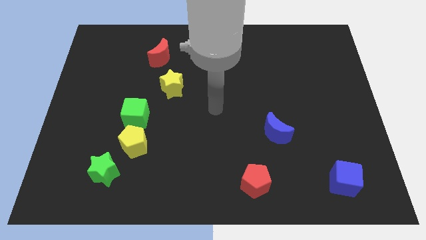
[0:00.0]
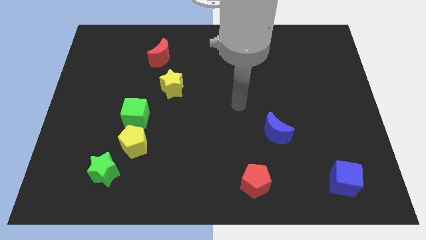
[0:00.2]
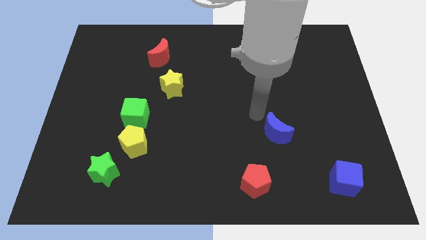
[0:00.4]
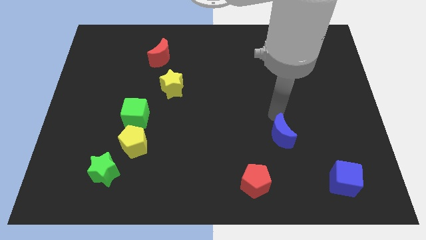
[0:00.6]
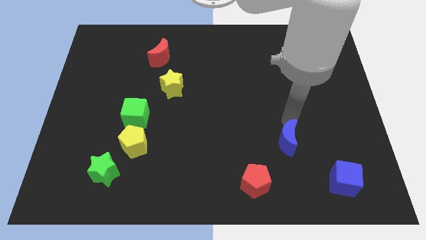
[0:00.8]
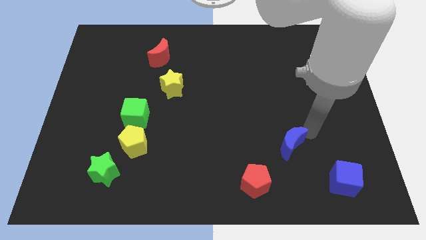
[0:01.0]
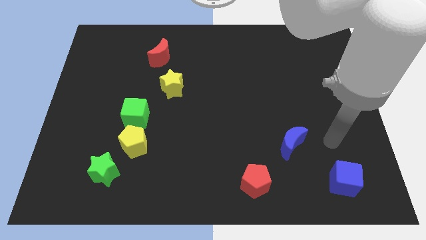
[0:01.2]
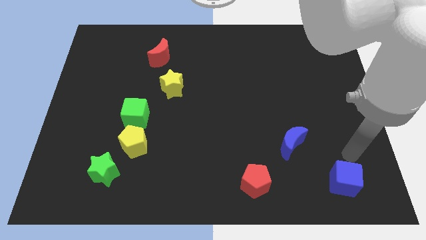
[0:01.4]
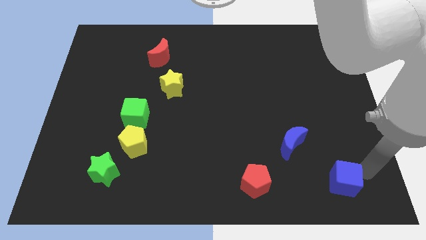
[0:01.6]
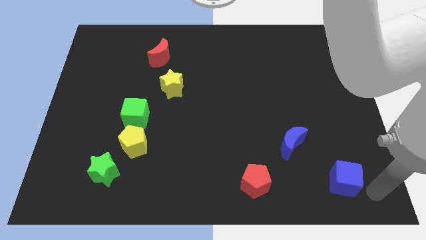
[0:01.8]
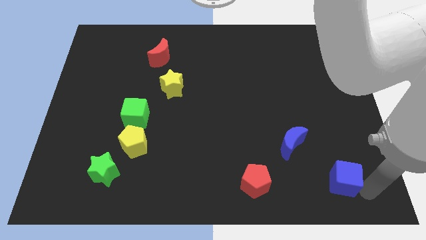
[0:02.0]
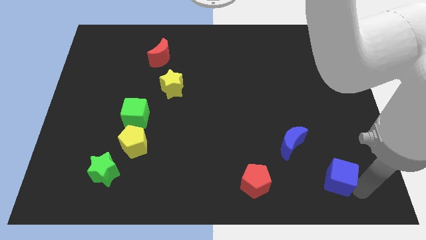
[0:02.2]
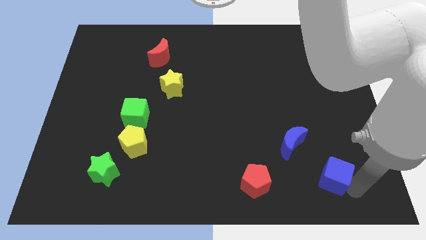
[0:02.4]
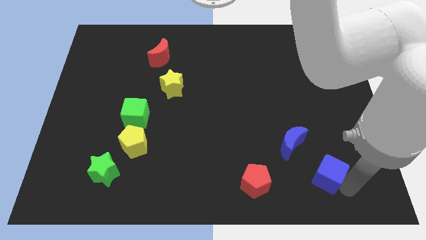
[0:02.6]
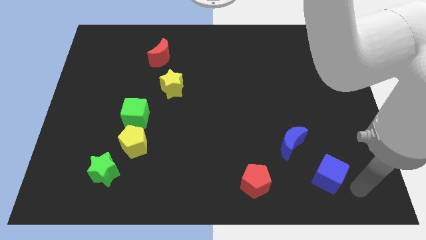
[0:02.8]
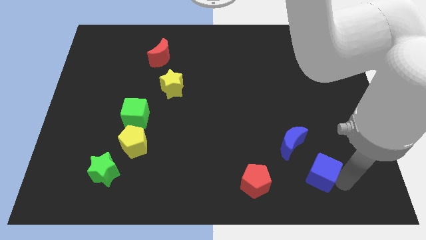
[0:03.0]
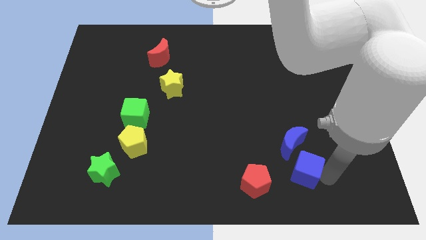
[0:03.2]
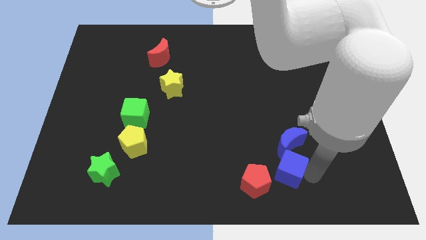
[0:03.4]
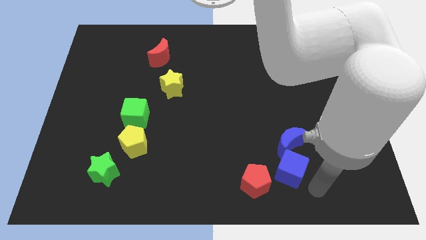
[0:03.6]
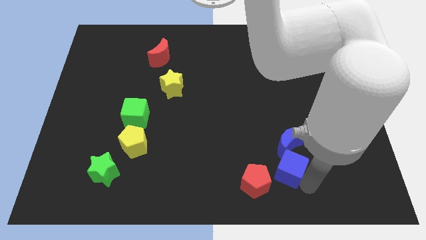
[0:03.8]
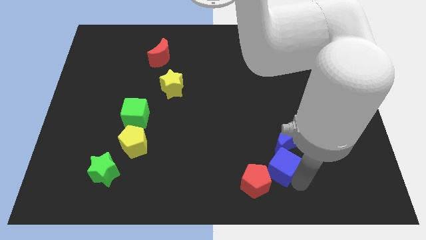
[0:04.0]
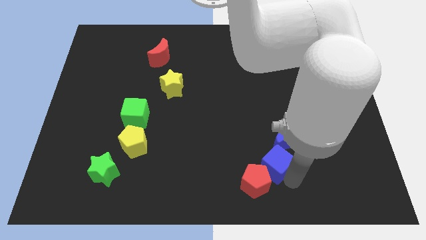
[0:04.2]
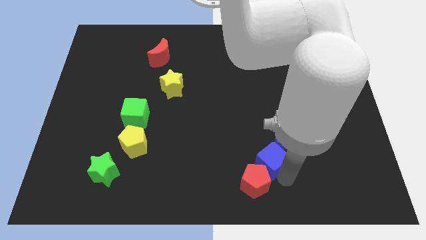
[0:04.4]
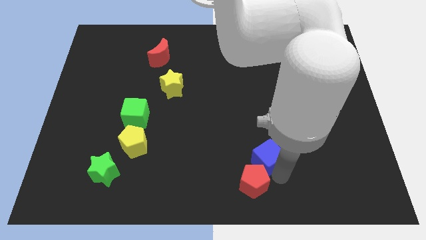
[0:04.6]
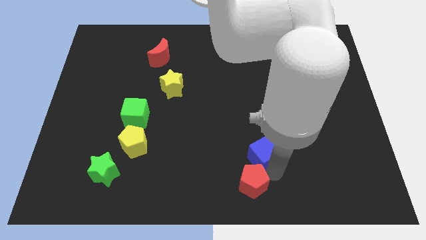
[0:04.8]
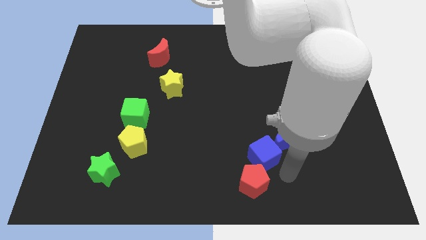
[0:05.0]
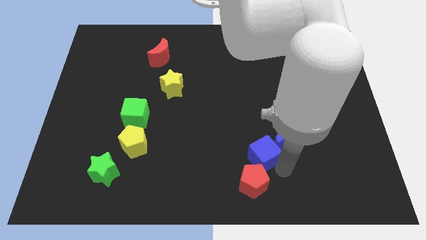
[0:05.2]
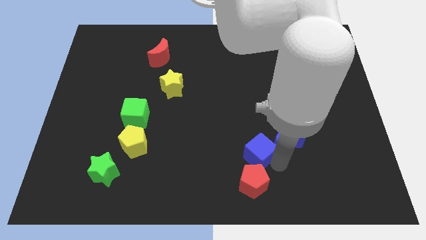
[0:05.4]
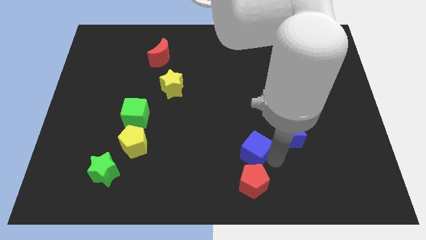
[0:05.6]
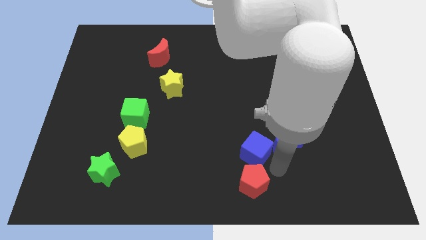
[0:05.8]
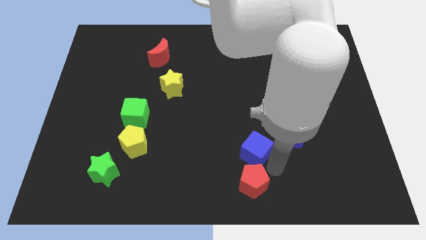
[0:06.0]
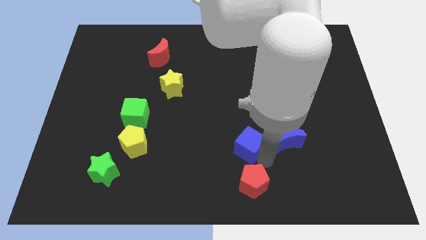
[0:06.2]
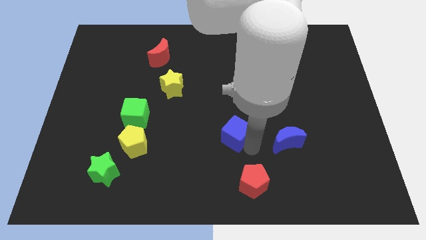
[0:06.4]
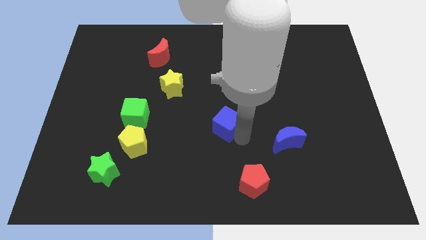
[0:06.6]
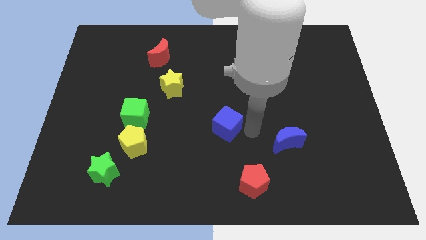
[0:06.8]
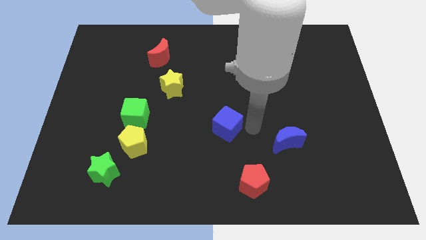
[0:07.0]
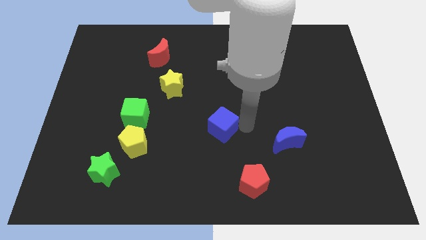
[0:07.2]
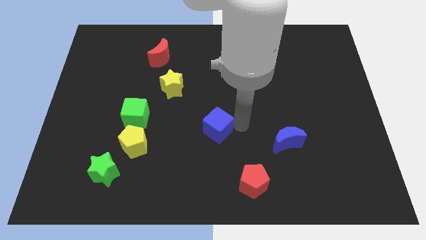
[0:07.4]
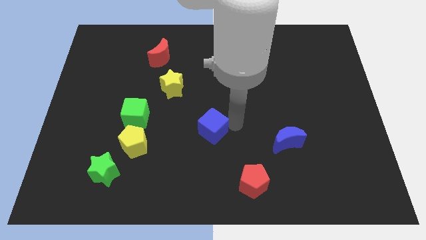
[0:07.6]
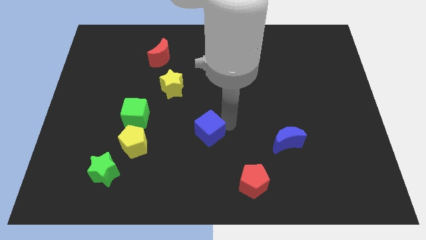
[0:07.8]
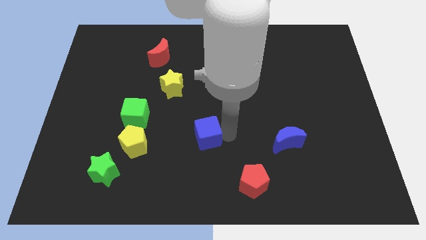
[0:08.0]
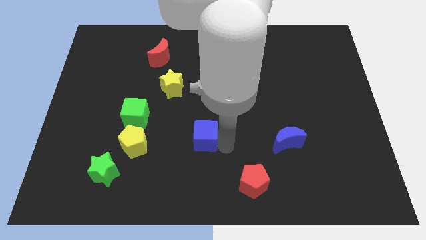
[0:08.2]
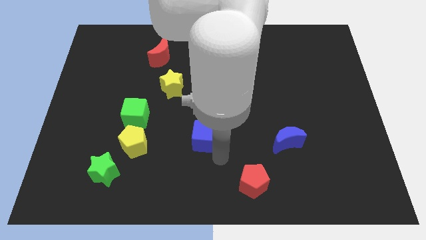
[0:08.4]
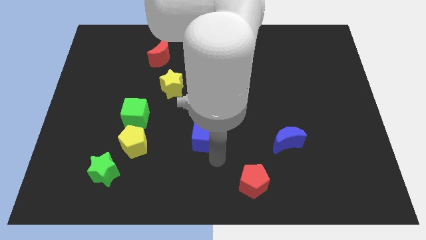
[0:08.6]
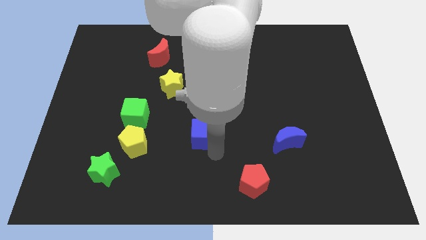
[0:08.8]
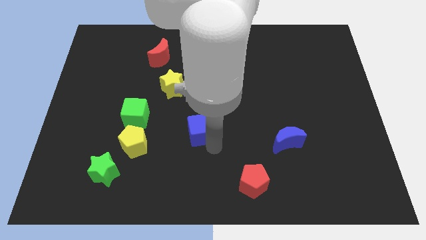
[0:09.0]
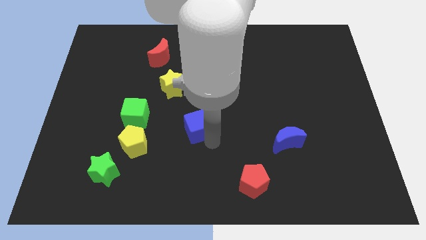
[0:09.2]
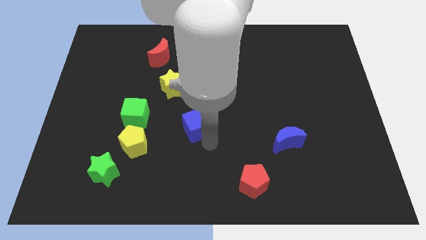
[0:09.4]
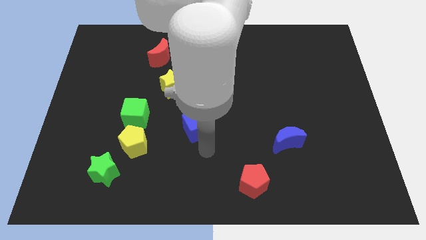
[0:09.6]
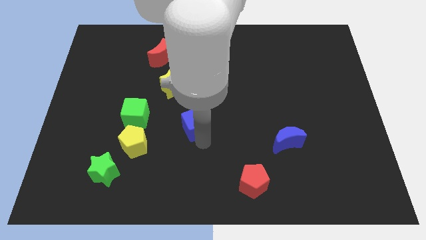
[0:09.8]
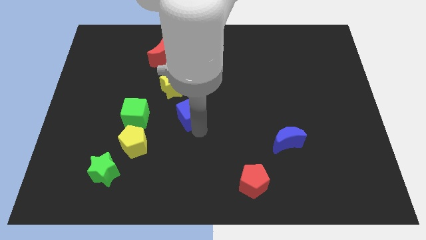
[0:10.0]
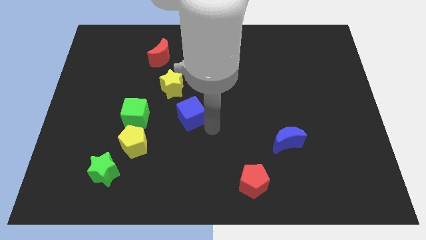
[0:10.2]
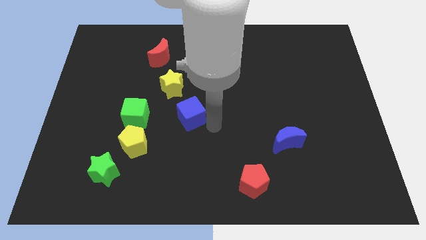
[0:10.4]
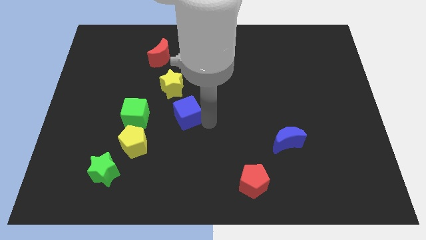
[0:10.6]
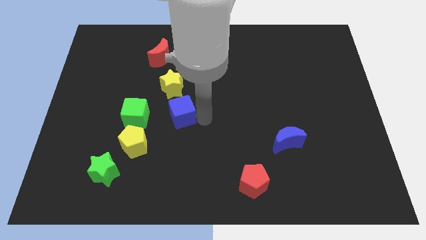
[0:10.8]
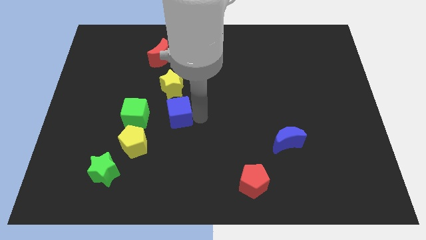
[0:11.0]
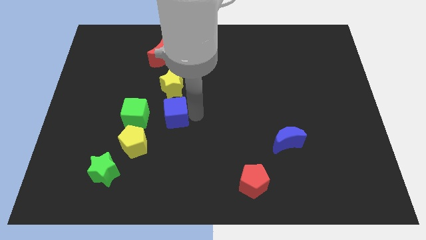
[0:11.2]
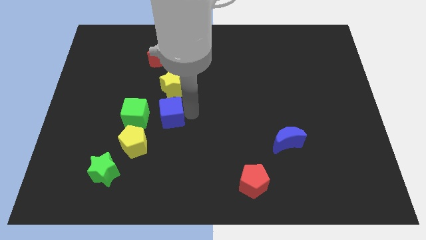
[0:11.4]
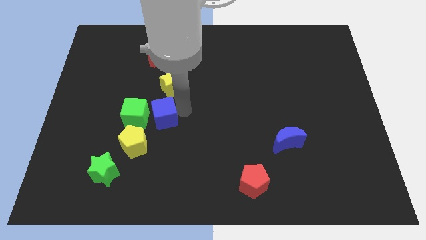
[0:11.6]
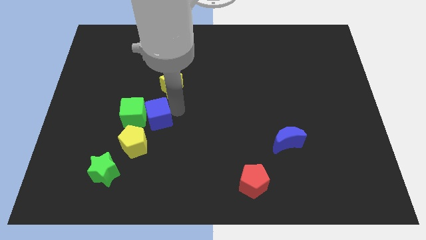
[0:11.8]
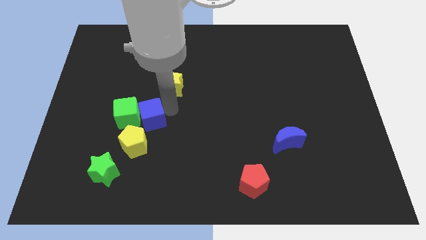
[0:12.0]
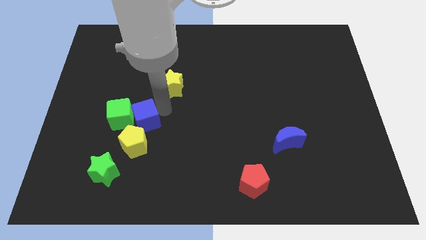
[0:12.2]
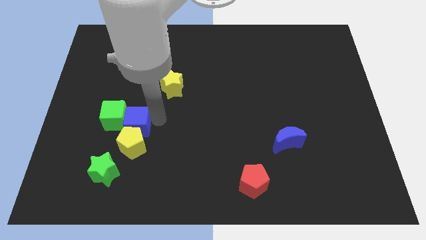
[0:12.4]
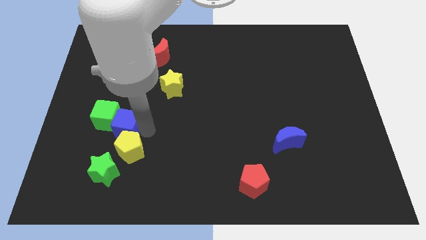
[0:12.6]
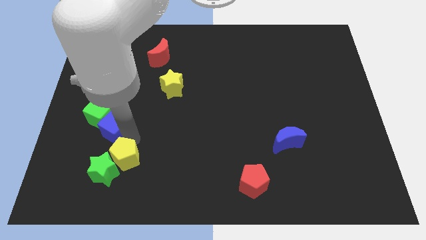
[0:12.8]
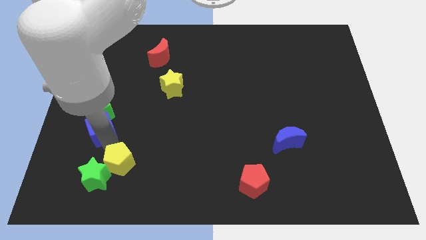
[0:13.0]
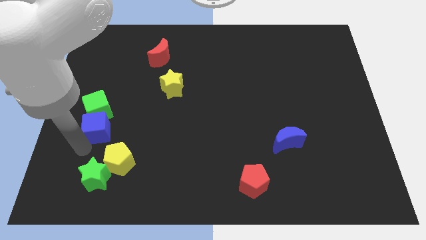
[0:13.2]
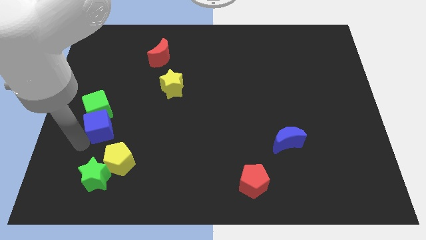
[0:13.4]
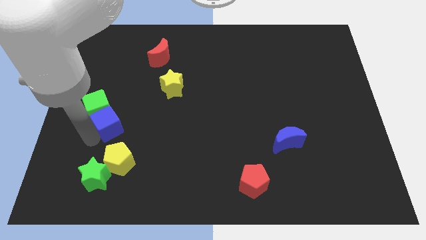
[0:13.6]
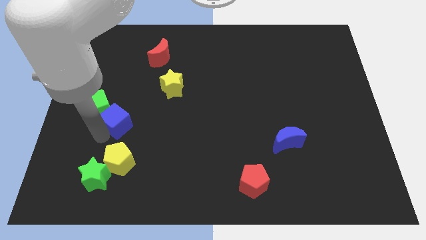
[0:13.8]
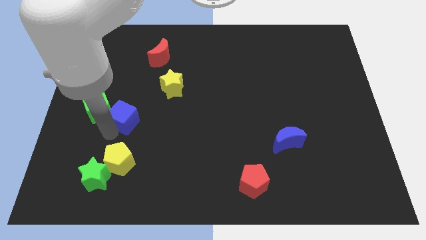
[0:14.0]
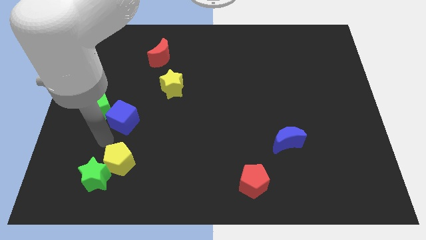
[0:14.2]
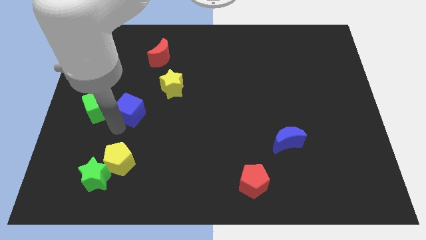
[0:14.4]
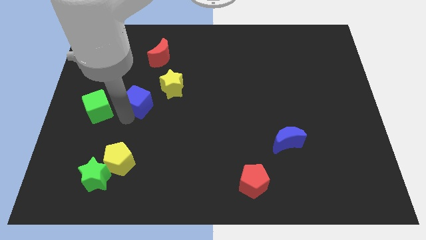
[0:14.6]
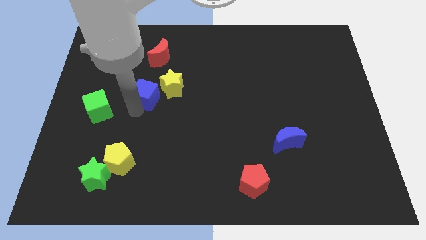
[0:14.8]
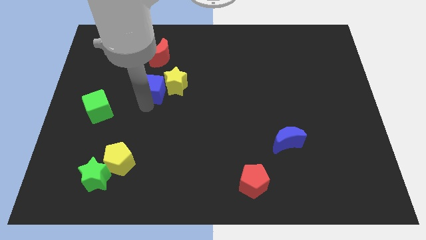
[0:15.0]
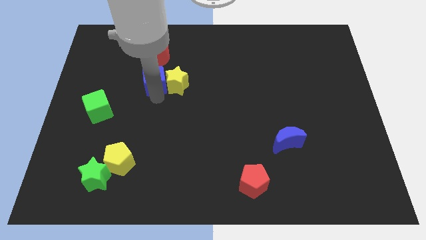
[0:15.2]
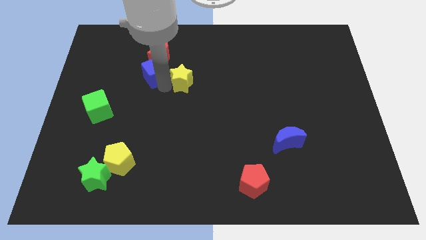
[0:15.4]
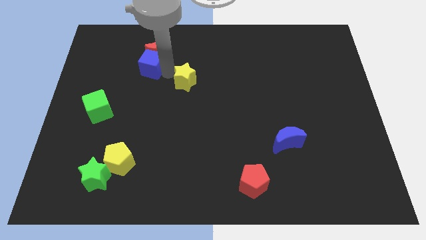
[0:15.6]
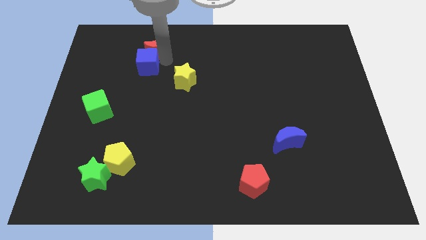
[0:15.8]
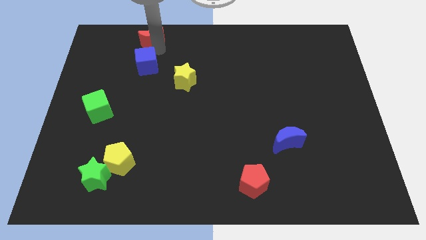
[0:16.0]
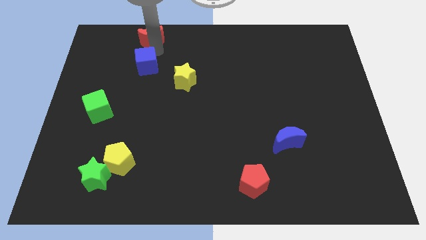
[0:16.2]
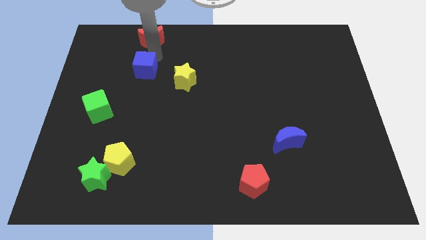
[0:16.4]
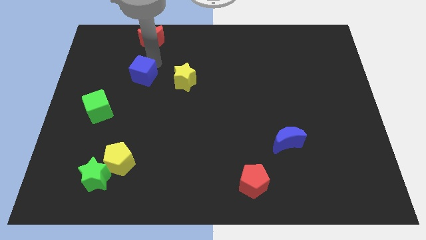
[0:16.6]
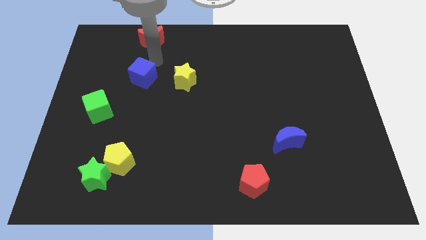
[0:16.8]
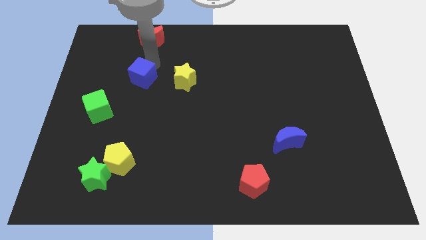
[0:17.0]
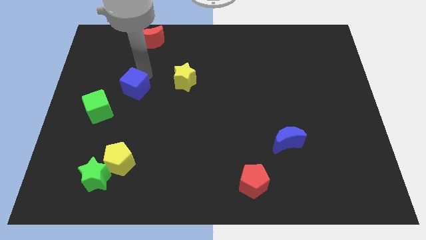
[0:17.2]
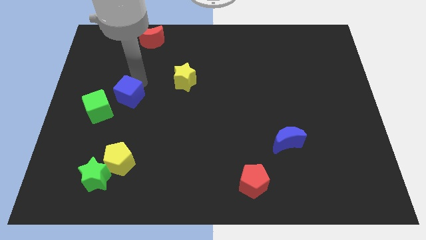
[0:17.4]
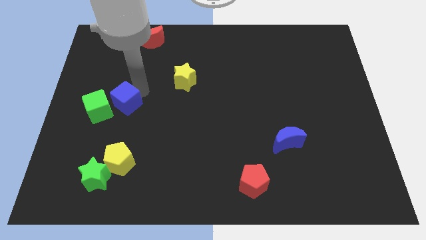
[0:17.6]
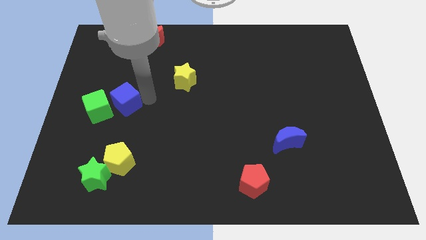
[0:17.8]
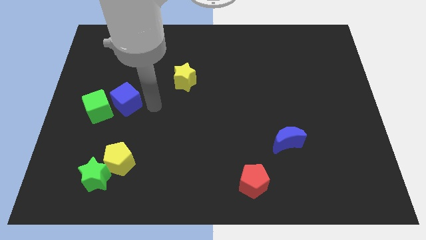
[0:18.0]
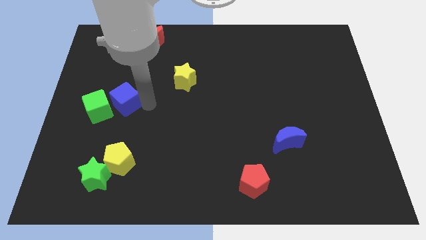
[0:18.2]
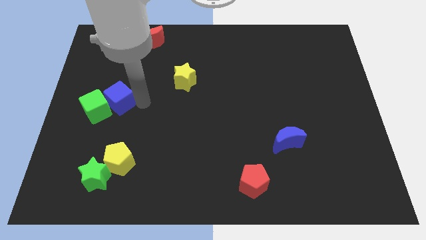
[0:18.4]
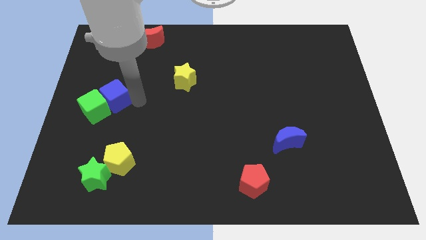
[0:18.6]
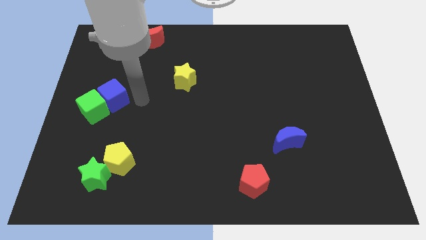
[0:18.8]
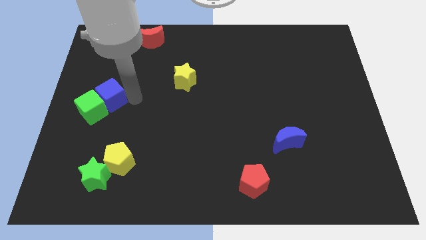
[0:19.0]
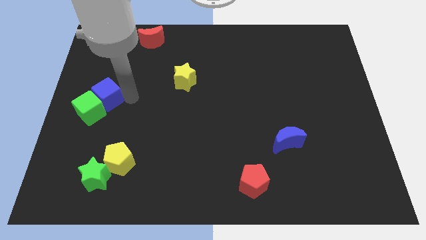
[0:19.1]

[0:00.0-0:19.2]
move the blue cube to the center left
